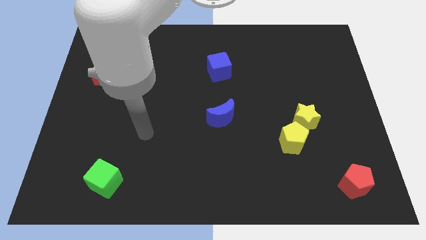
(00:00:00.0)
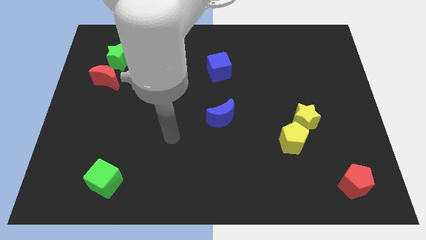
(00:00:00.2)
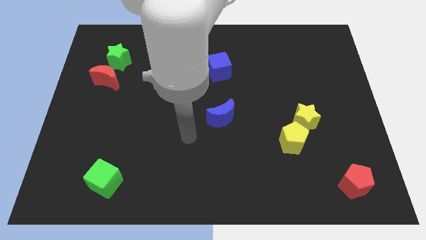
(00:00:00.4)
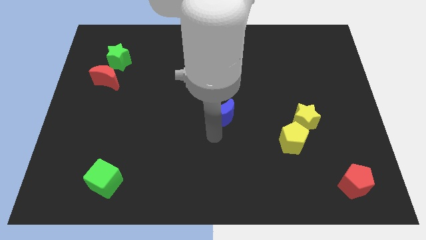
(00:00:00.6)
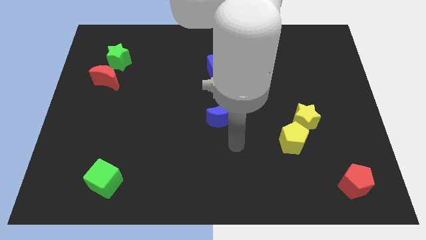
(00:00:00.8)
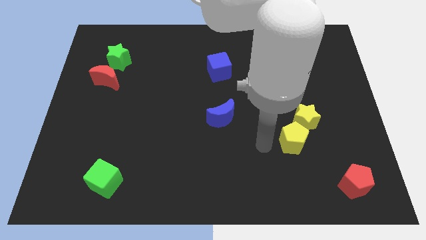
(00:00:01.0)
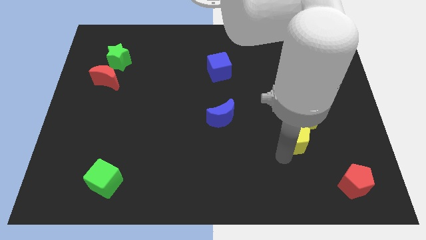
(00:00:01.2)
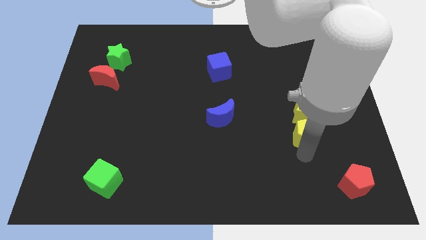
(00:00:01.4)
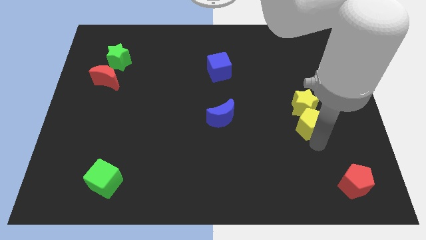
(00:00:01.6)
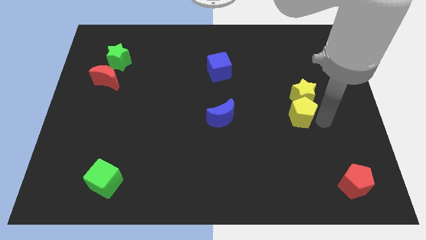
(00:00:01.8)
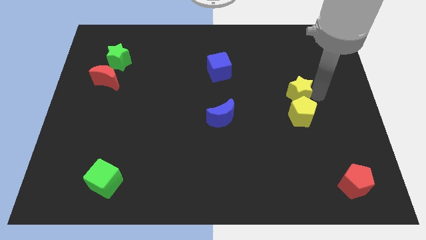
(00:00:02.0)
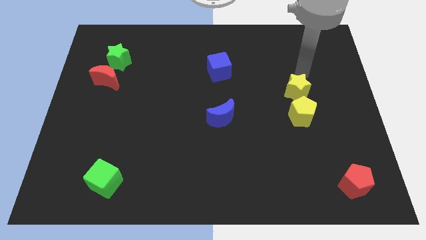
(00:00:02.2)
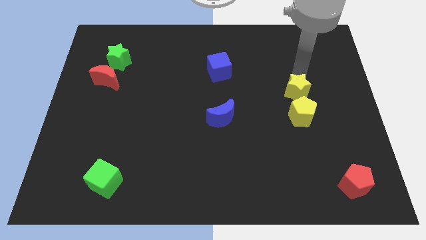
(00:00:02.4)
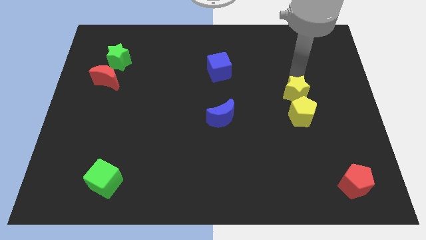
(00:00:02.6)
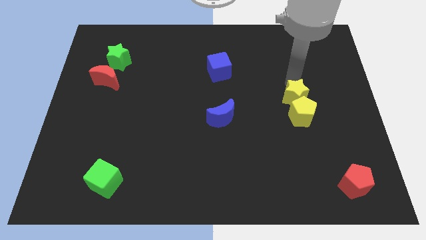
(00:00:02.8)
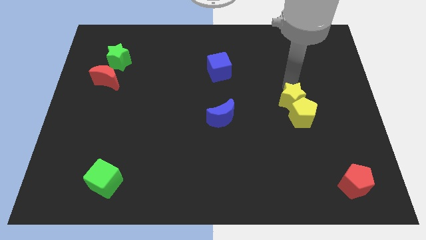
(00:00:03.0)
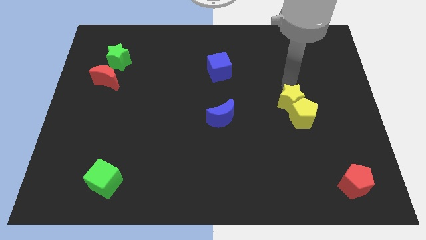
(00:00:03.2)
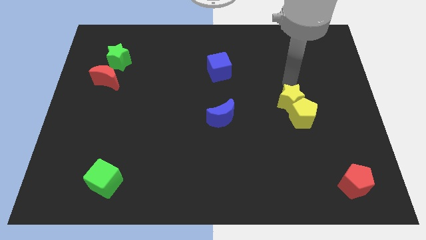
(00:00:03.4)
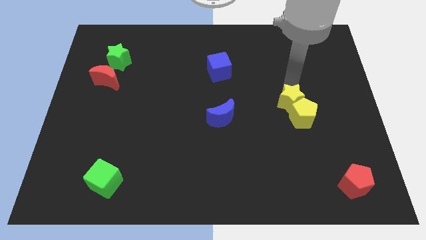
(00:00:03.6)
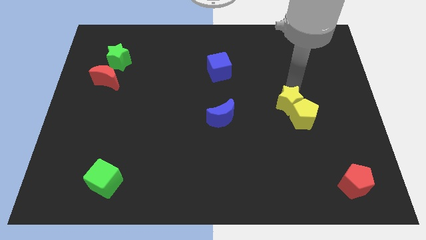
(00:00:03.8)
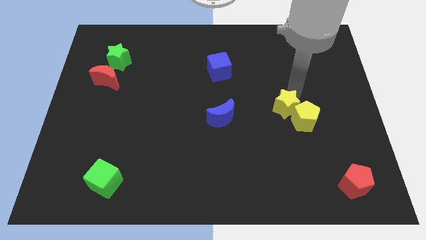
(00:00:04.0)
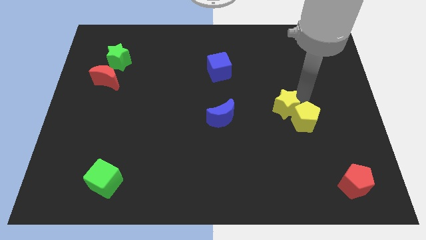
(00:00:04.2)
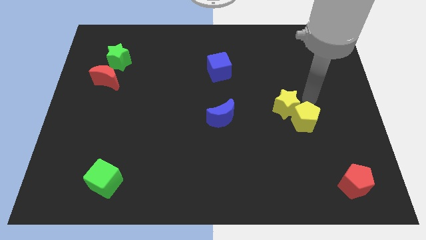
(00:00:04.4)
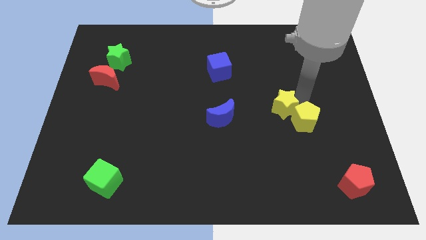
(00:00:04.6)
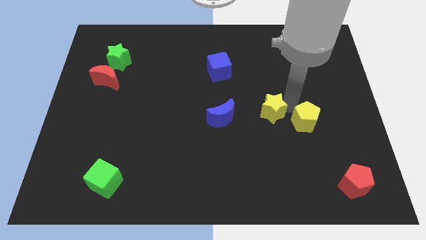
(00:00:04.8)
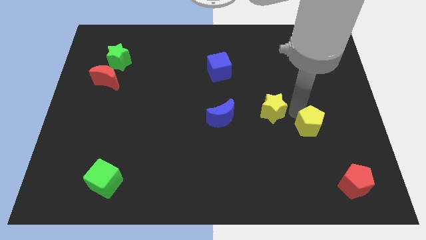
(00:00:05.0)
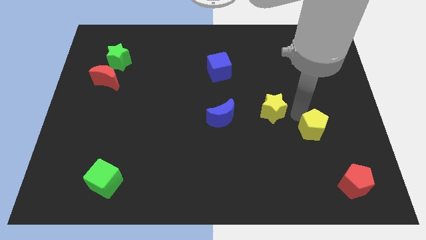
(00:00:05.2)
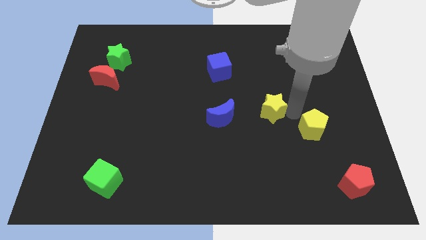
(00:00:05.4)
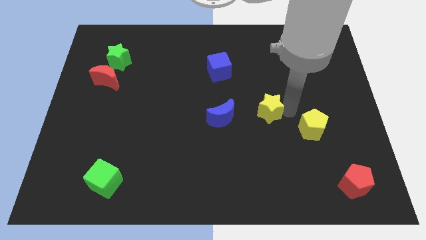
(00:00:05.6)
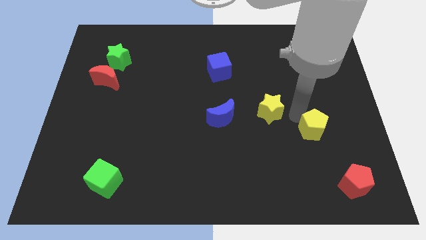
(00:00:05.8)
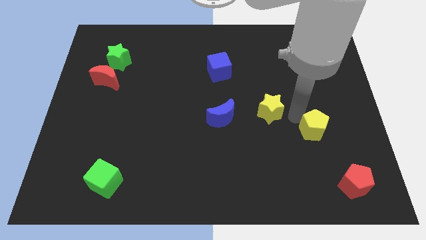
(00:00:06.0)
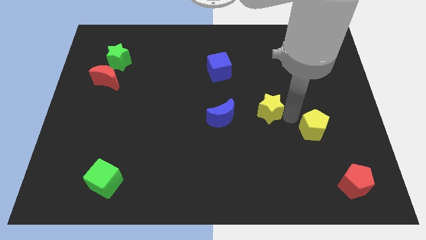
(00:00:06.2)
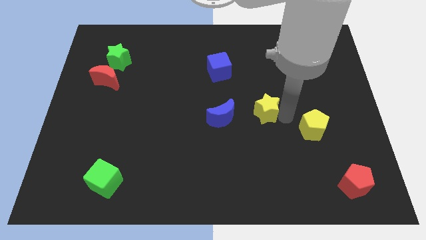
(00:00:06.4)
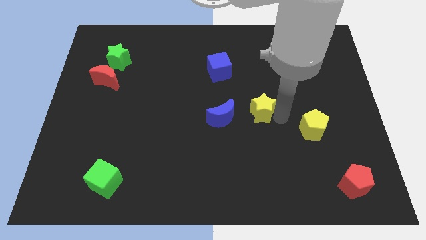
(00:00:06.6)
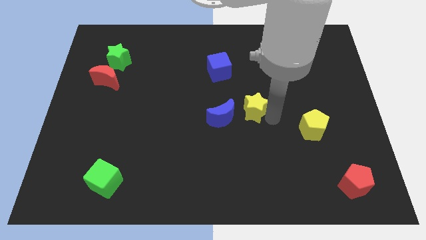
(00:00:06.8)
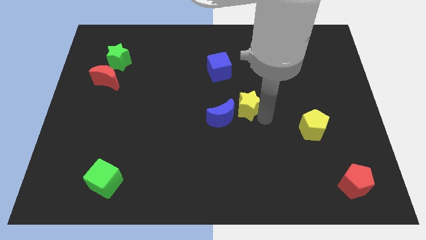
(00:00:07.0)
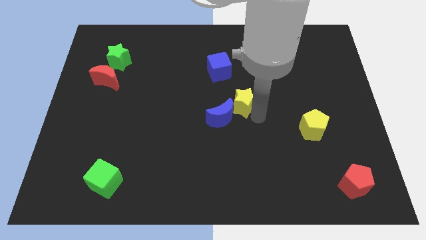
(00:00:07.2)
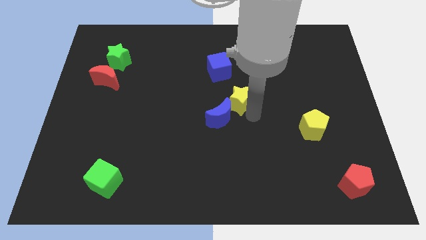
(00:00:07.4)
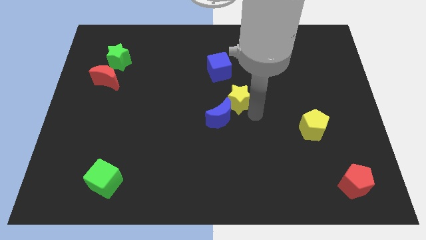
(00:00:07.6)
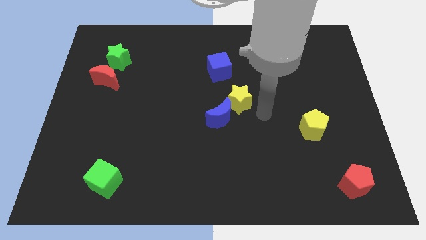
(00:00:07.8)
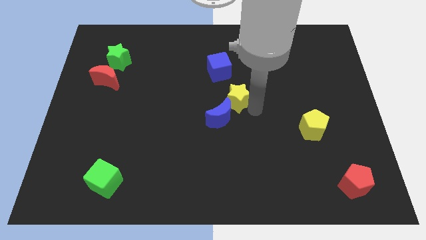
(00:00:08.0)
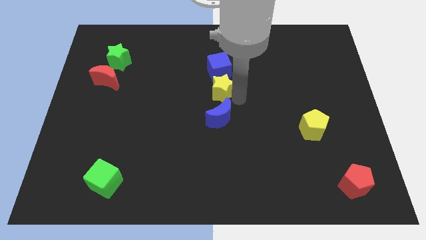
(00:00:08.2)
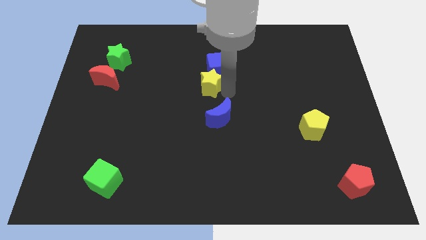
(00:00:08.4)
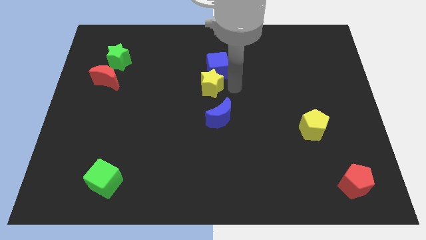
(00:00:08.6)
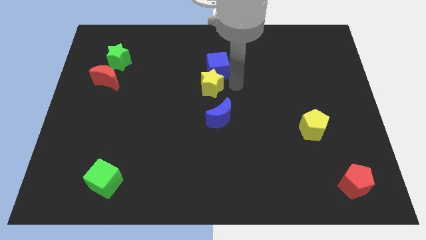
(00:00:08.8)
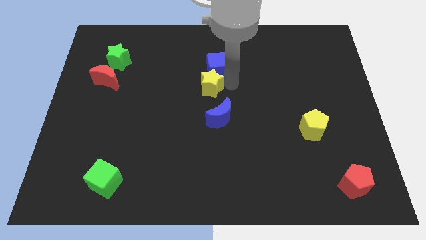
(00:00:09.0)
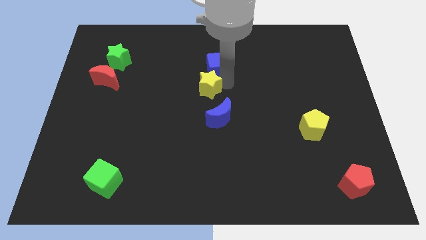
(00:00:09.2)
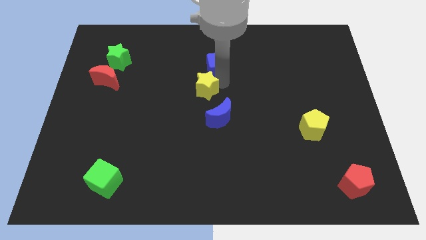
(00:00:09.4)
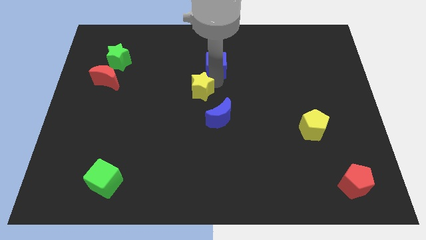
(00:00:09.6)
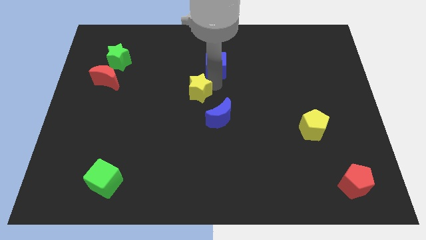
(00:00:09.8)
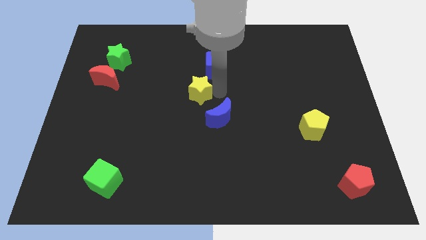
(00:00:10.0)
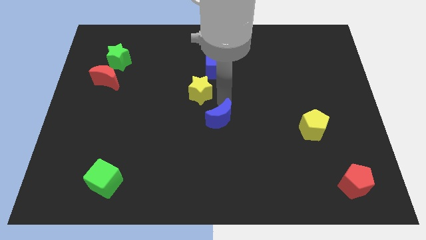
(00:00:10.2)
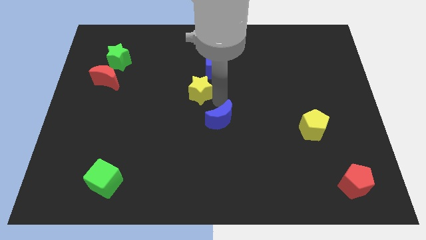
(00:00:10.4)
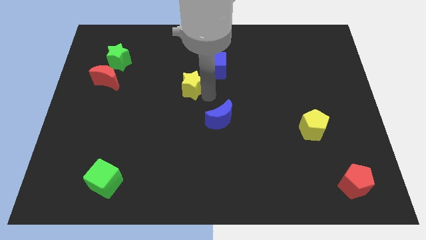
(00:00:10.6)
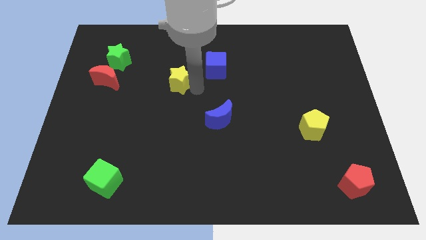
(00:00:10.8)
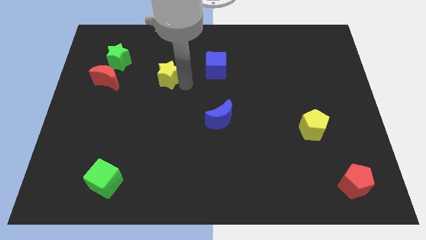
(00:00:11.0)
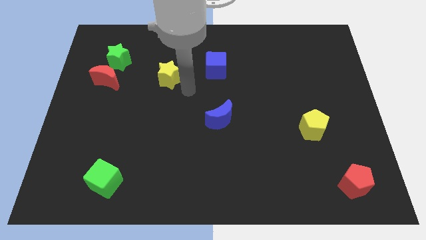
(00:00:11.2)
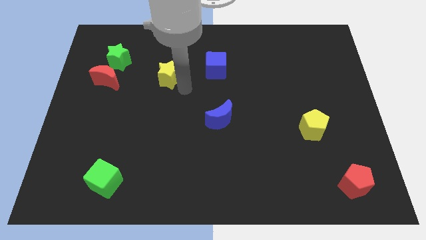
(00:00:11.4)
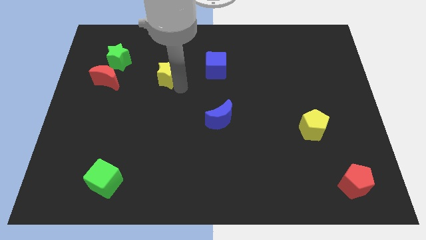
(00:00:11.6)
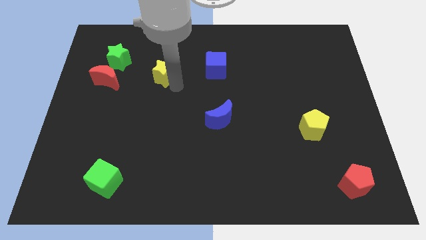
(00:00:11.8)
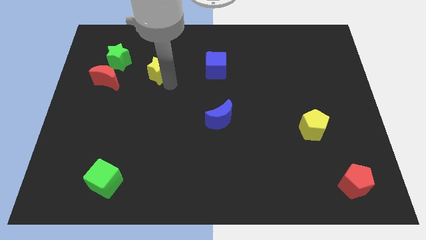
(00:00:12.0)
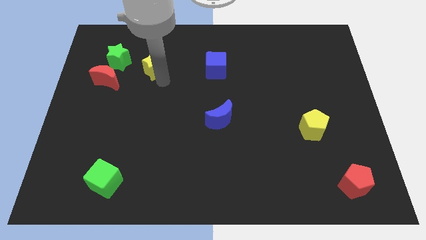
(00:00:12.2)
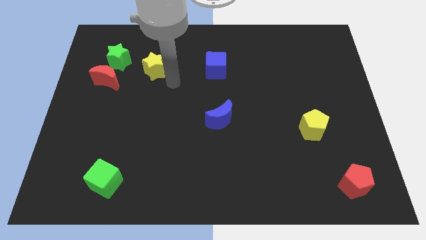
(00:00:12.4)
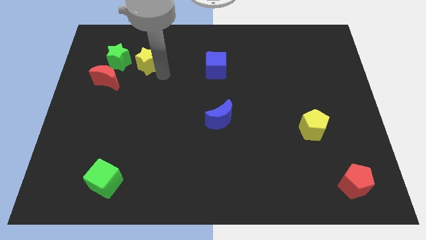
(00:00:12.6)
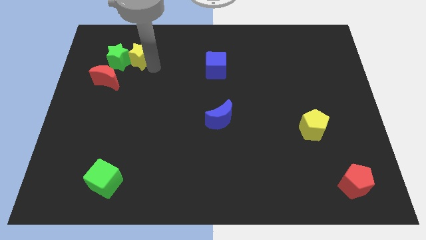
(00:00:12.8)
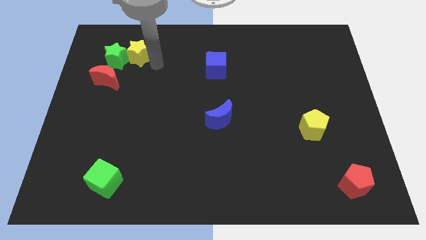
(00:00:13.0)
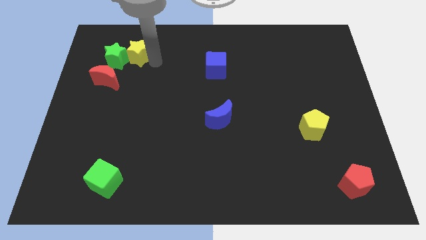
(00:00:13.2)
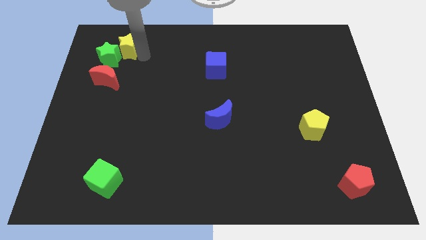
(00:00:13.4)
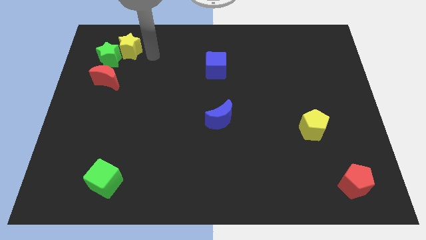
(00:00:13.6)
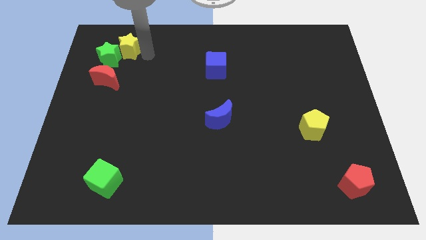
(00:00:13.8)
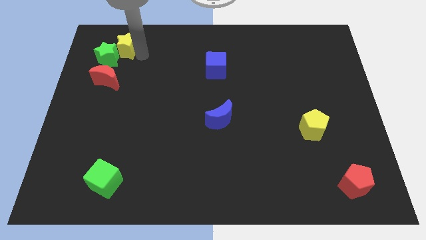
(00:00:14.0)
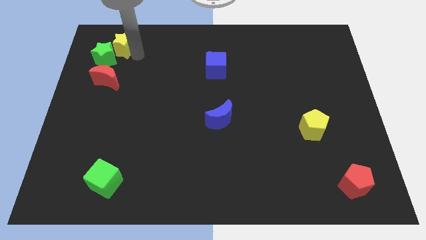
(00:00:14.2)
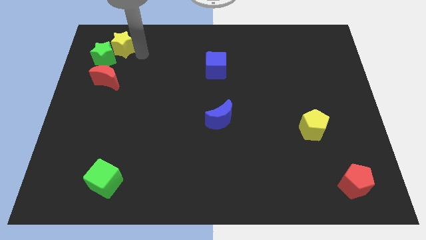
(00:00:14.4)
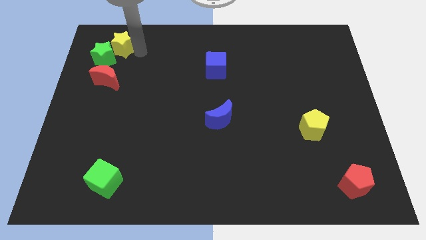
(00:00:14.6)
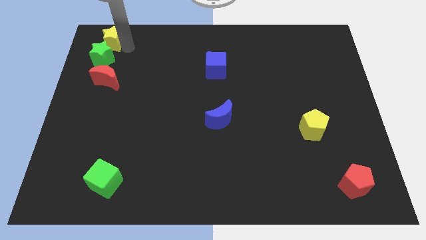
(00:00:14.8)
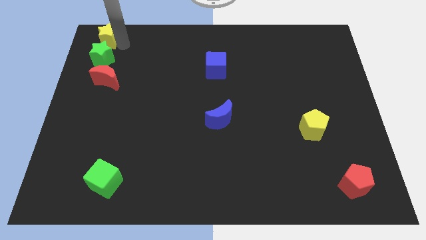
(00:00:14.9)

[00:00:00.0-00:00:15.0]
move the yellow star to the top left of the board

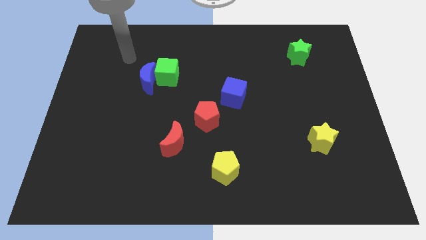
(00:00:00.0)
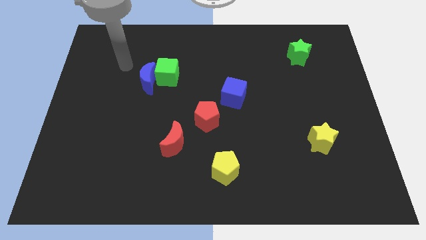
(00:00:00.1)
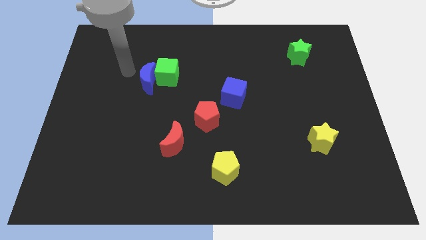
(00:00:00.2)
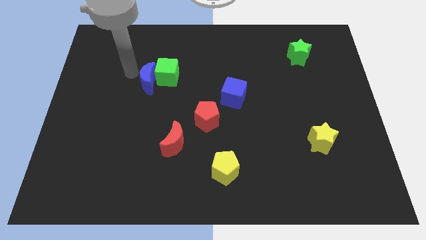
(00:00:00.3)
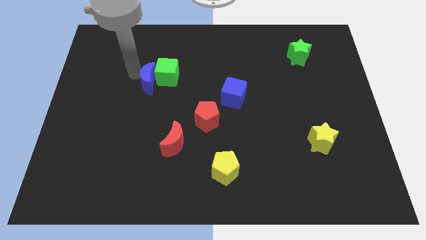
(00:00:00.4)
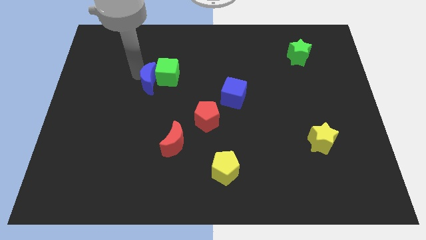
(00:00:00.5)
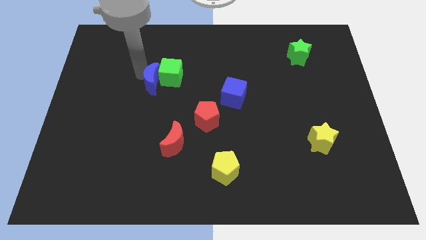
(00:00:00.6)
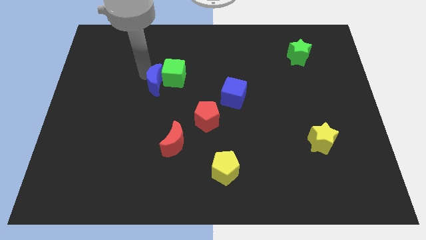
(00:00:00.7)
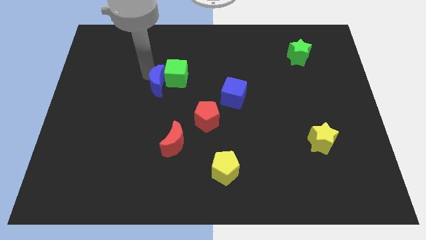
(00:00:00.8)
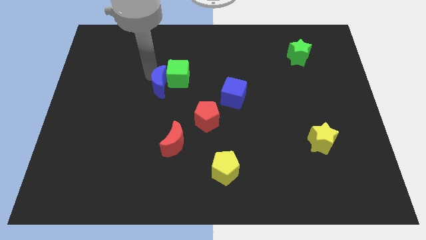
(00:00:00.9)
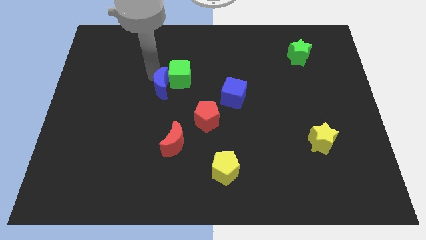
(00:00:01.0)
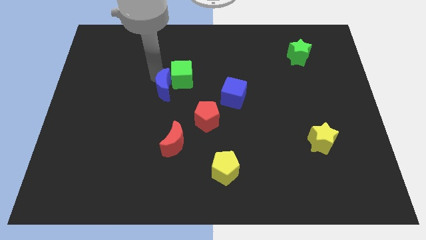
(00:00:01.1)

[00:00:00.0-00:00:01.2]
put the blue moon to the middle of the board
